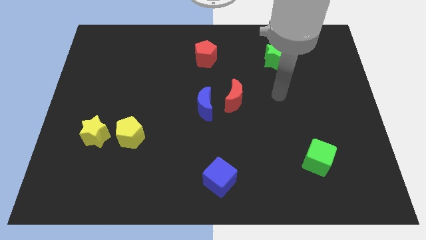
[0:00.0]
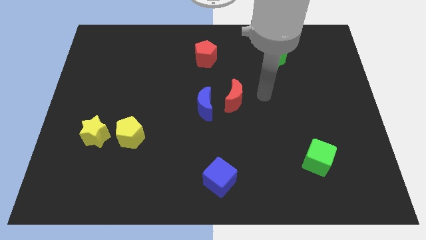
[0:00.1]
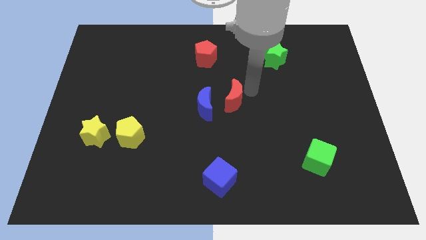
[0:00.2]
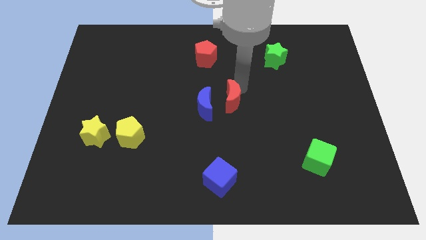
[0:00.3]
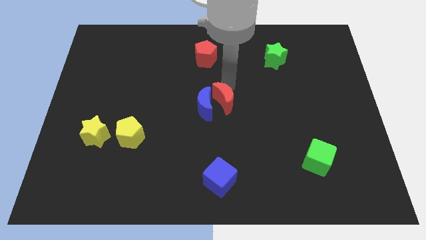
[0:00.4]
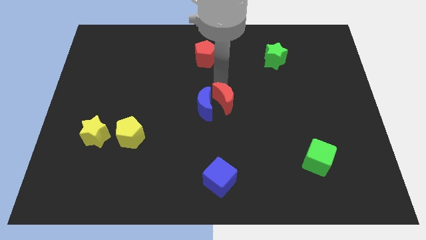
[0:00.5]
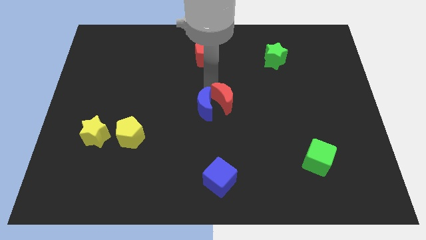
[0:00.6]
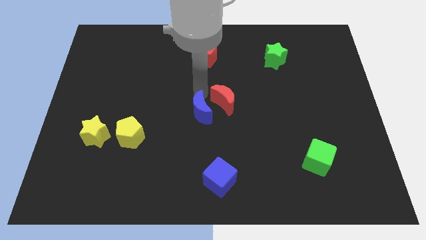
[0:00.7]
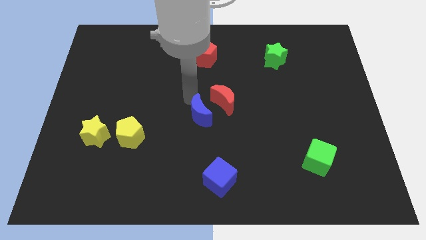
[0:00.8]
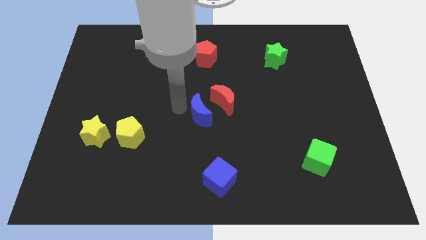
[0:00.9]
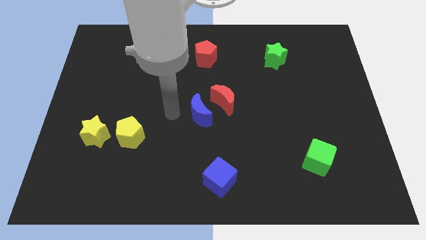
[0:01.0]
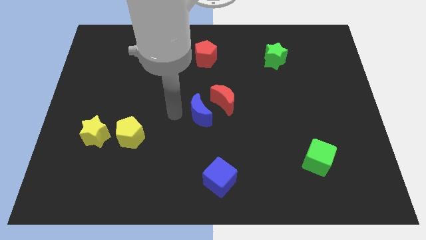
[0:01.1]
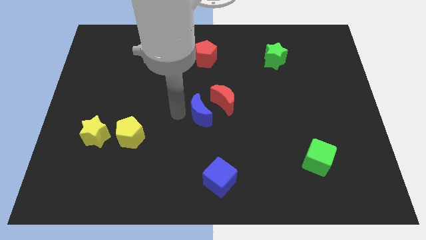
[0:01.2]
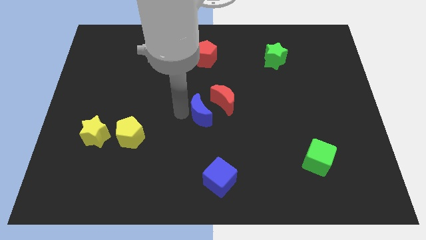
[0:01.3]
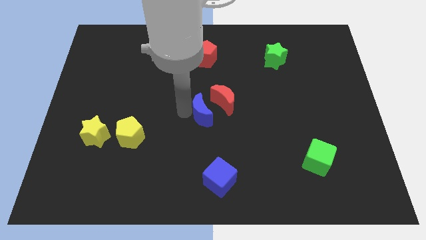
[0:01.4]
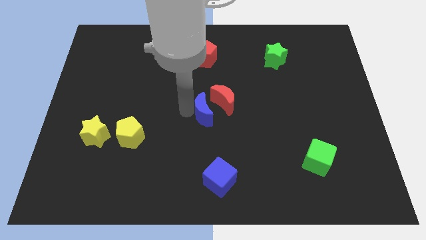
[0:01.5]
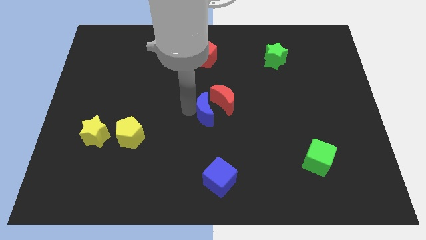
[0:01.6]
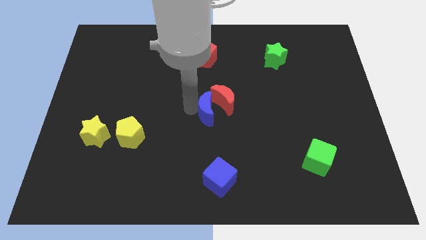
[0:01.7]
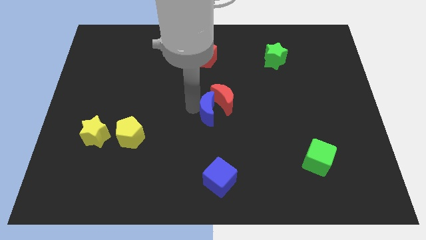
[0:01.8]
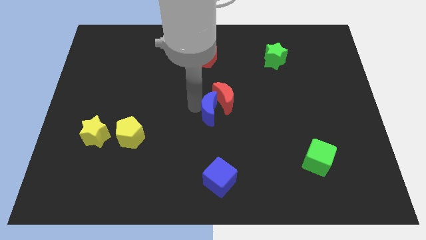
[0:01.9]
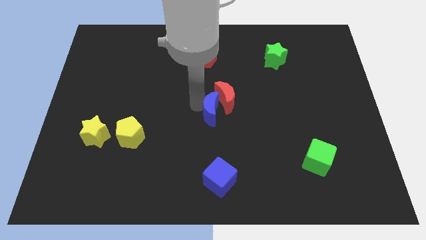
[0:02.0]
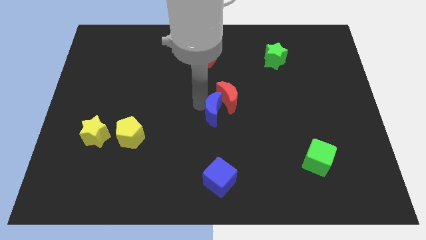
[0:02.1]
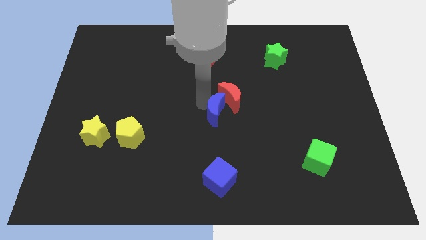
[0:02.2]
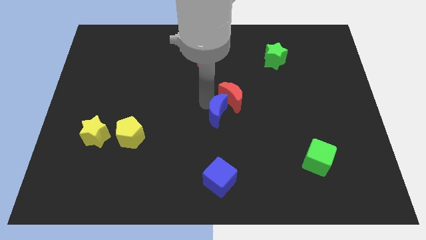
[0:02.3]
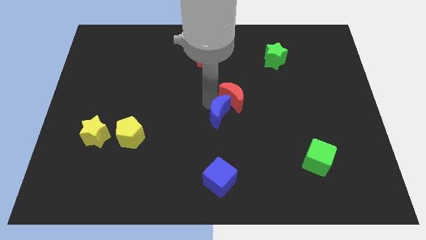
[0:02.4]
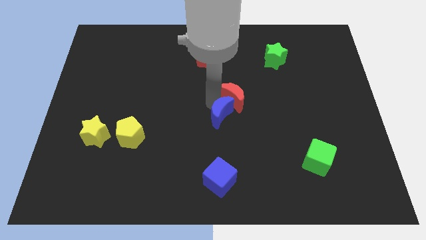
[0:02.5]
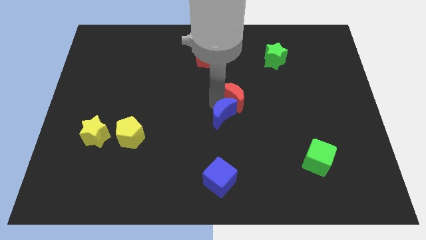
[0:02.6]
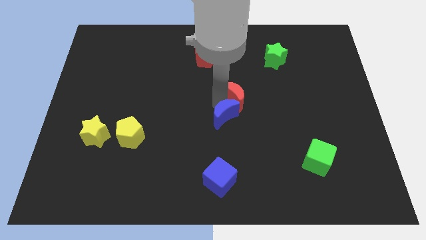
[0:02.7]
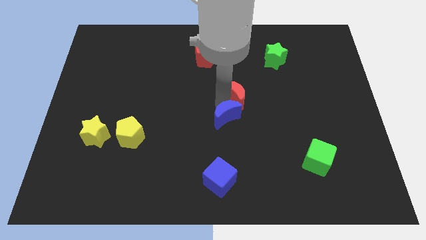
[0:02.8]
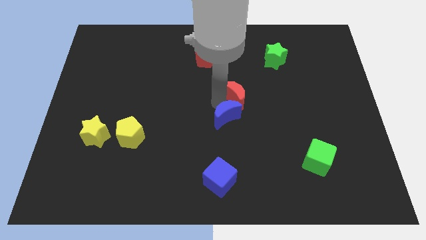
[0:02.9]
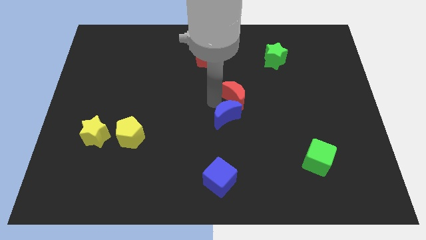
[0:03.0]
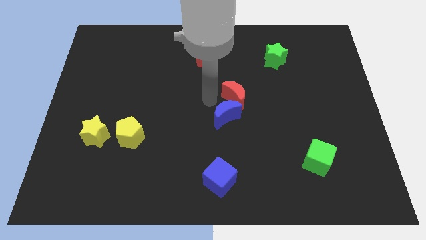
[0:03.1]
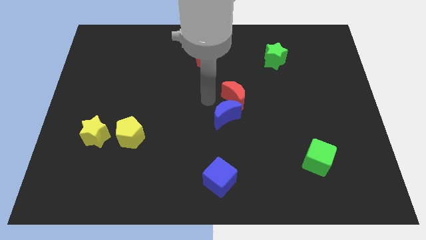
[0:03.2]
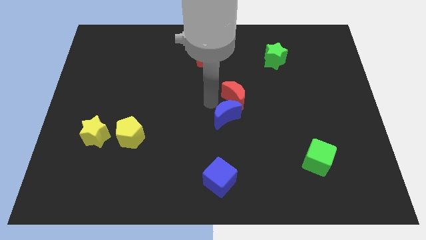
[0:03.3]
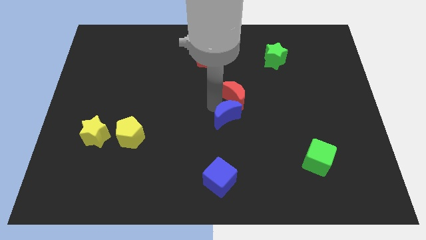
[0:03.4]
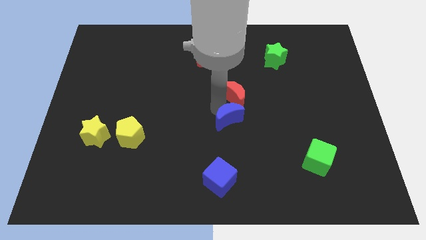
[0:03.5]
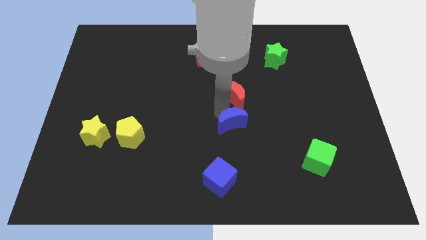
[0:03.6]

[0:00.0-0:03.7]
slightly push the blue moon down and right diagonally

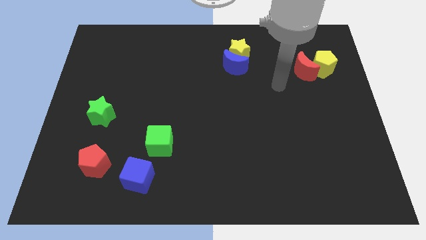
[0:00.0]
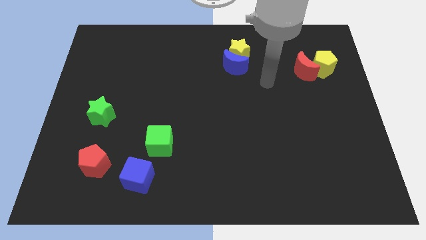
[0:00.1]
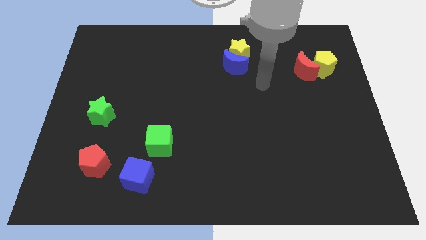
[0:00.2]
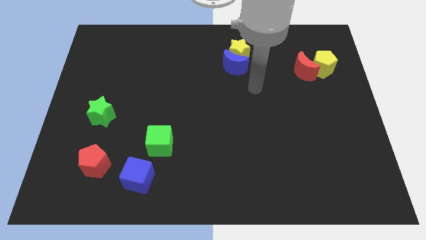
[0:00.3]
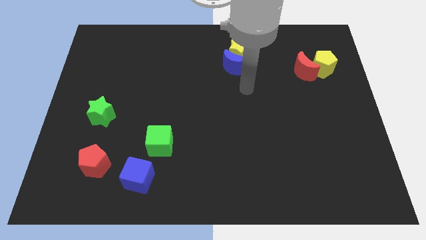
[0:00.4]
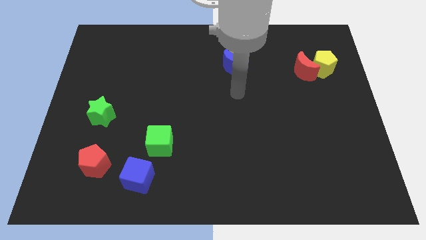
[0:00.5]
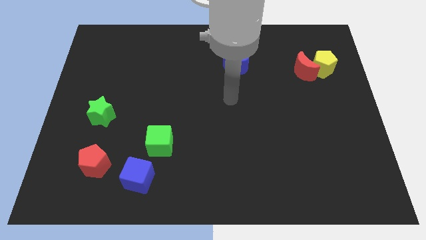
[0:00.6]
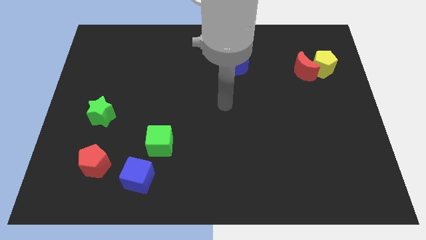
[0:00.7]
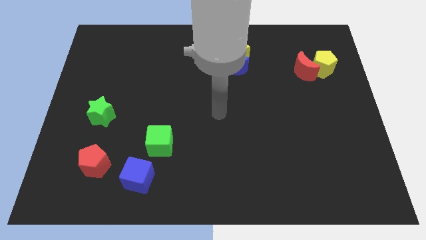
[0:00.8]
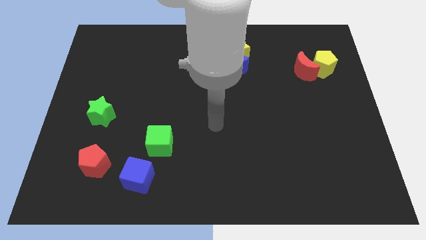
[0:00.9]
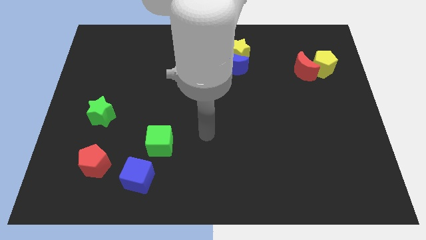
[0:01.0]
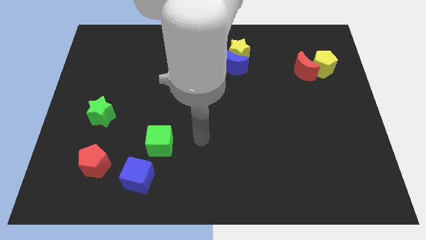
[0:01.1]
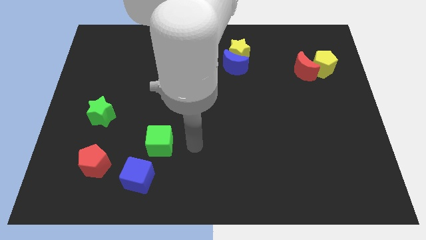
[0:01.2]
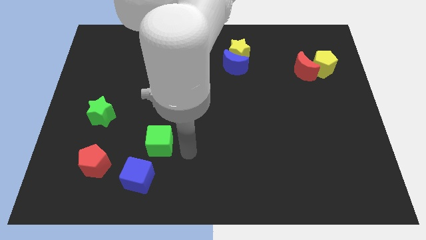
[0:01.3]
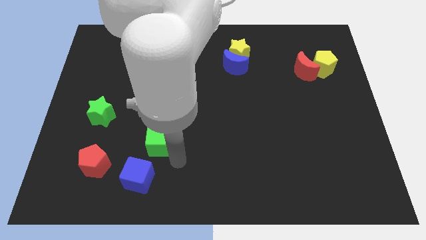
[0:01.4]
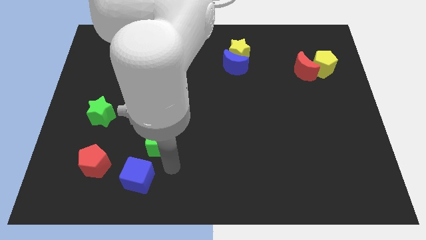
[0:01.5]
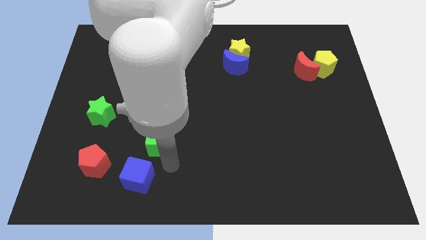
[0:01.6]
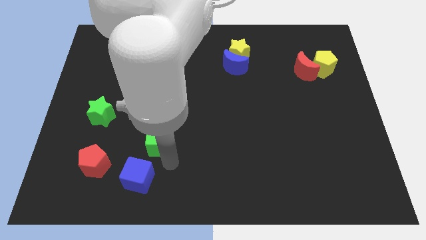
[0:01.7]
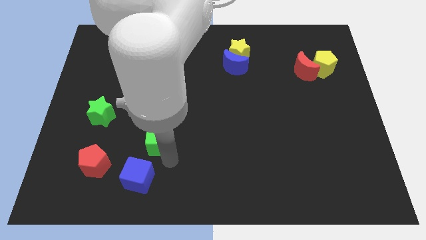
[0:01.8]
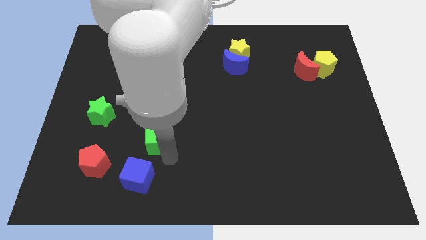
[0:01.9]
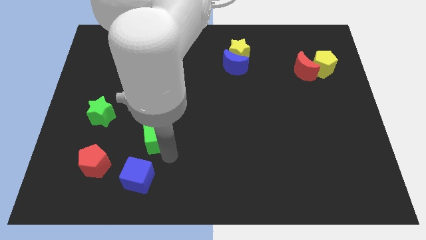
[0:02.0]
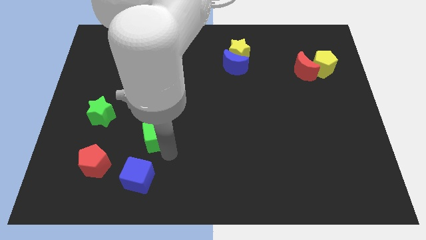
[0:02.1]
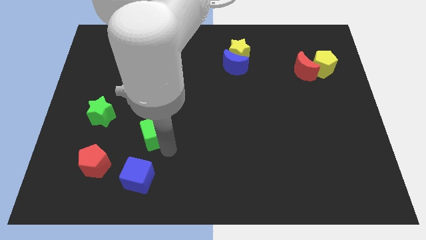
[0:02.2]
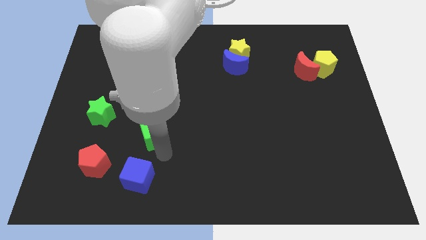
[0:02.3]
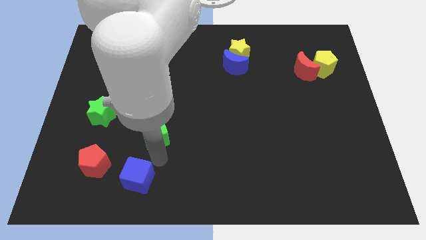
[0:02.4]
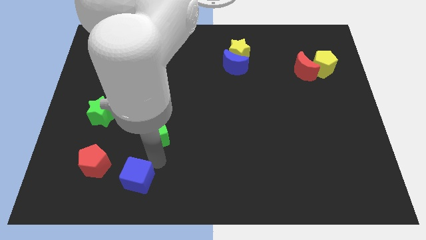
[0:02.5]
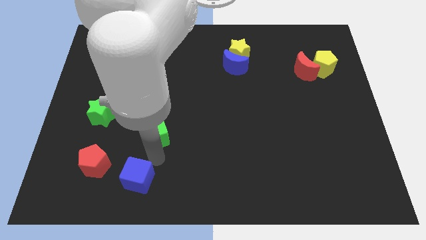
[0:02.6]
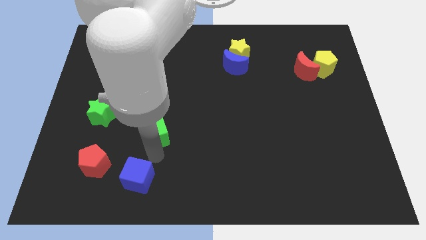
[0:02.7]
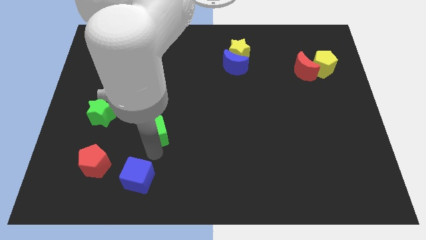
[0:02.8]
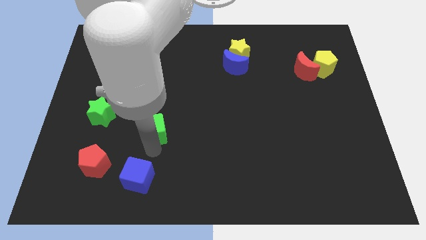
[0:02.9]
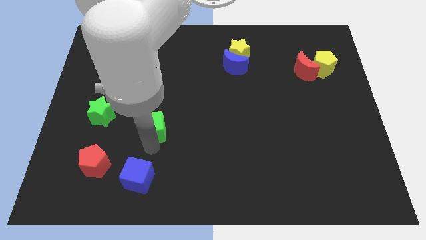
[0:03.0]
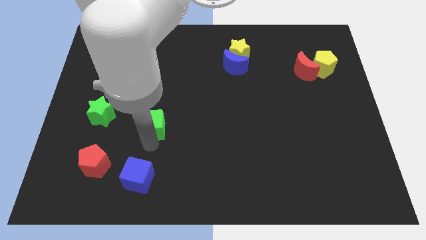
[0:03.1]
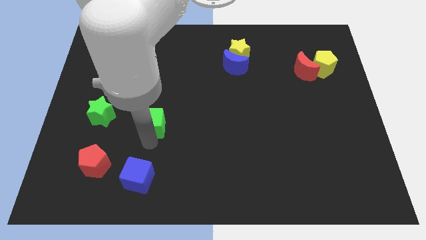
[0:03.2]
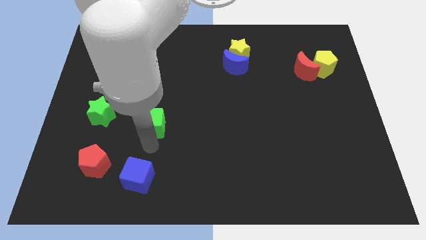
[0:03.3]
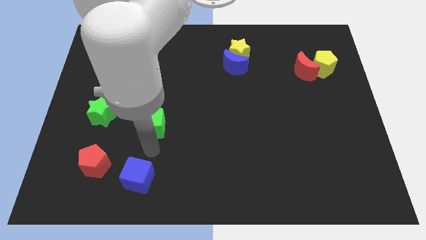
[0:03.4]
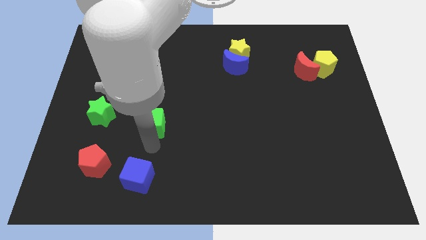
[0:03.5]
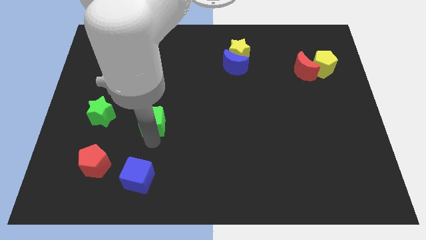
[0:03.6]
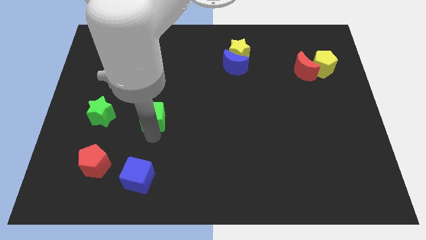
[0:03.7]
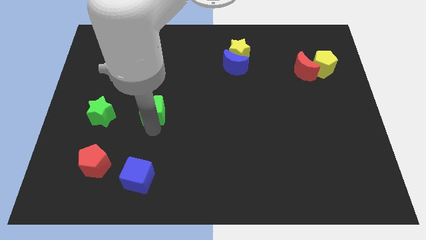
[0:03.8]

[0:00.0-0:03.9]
push the green cube somewhat upwards

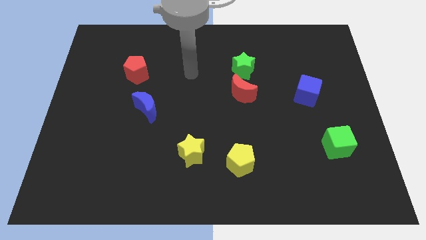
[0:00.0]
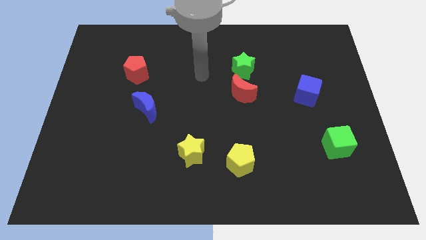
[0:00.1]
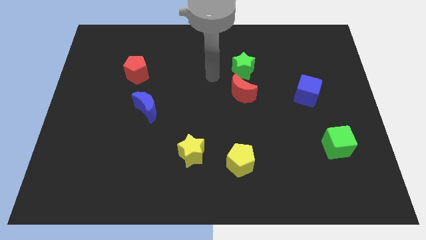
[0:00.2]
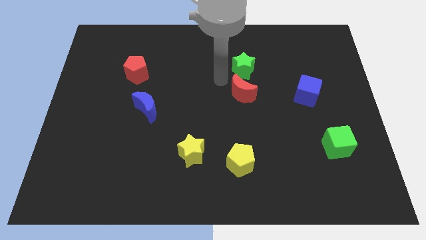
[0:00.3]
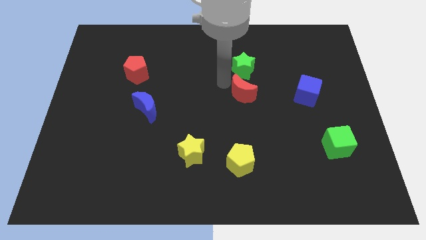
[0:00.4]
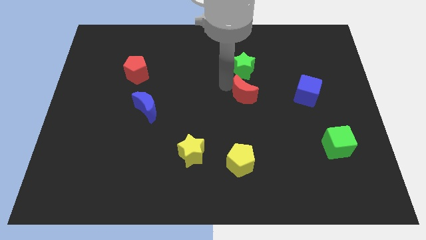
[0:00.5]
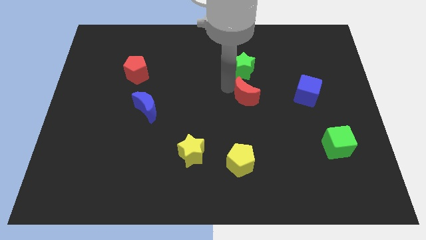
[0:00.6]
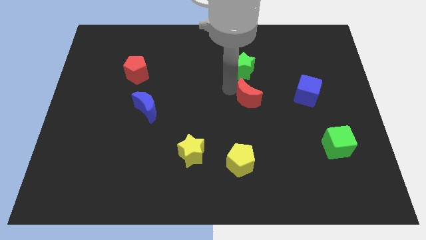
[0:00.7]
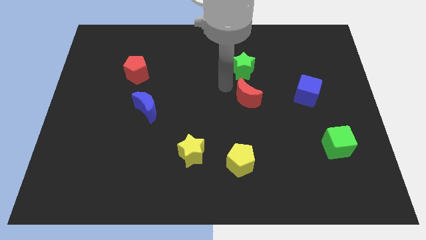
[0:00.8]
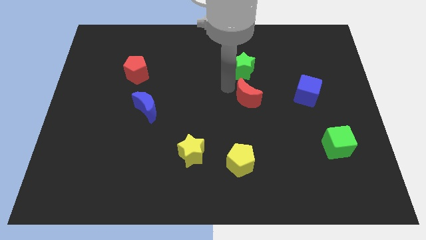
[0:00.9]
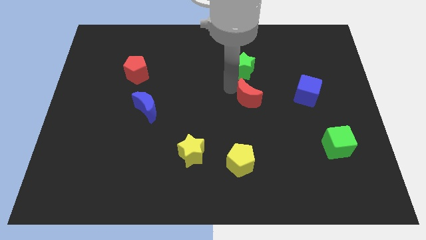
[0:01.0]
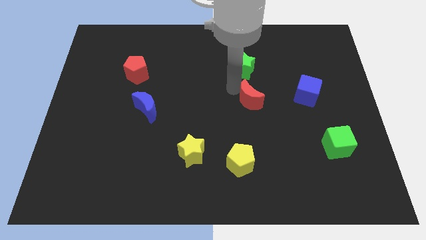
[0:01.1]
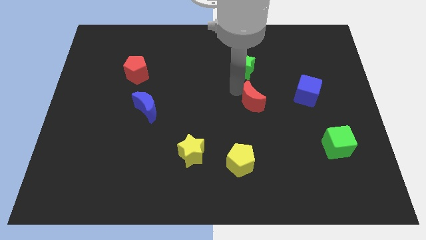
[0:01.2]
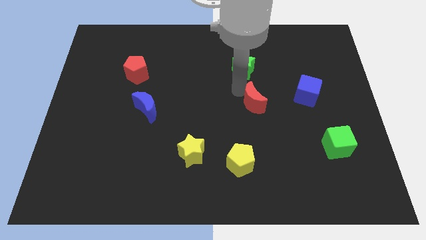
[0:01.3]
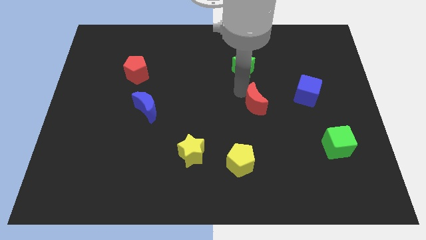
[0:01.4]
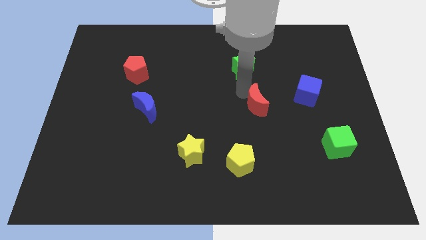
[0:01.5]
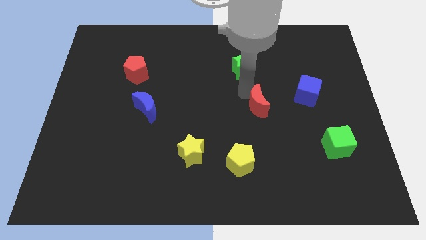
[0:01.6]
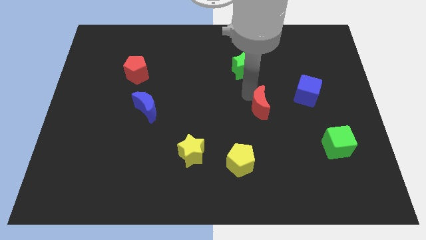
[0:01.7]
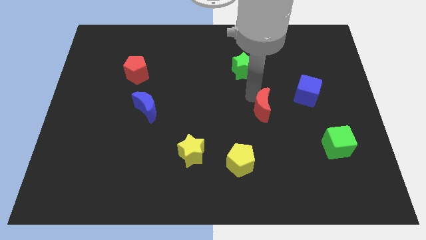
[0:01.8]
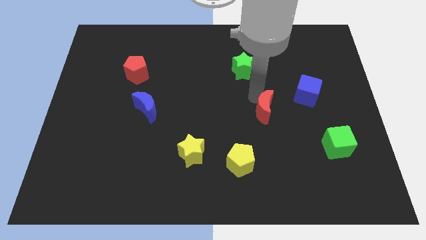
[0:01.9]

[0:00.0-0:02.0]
slightly slide the red moon down and right
